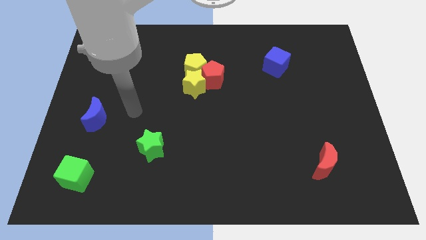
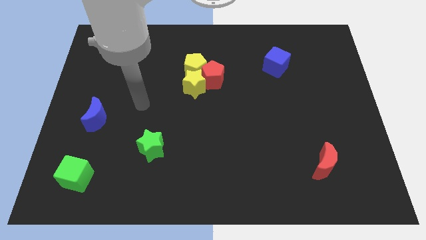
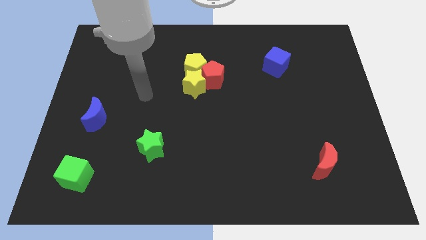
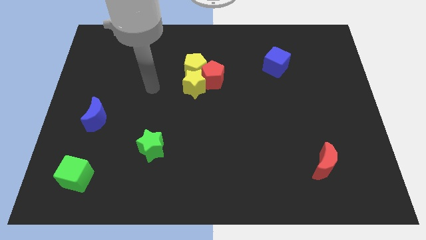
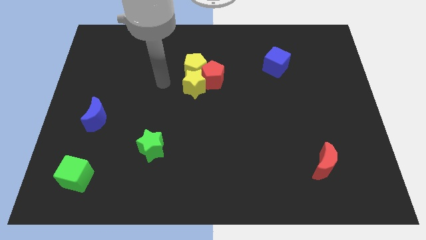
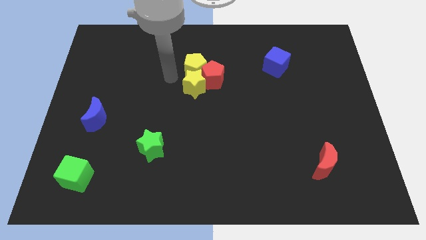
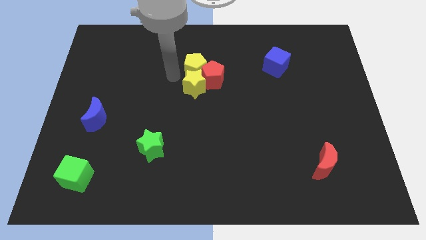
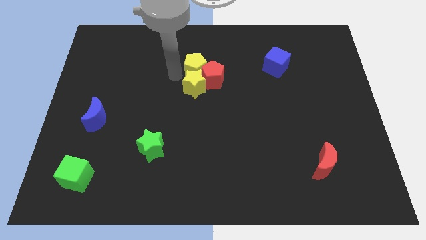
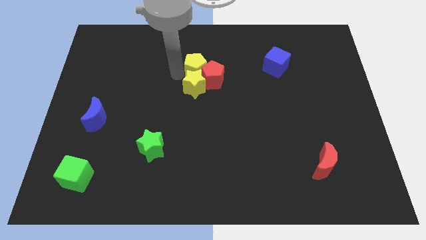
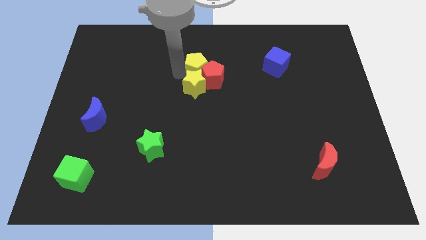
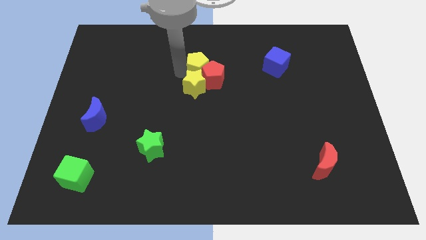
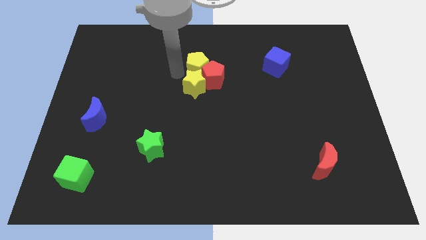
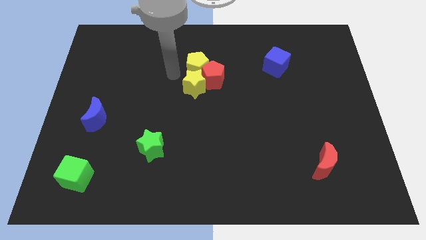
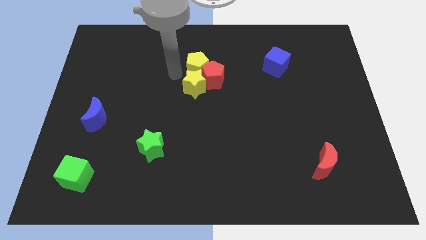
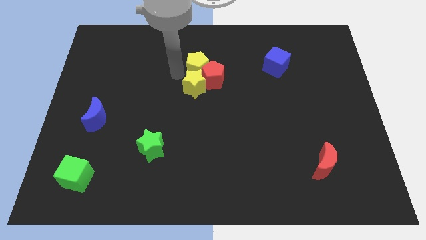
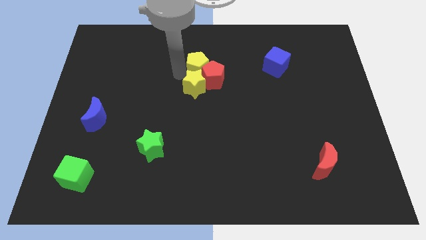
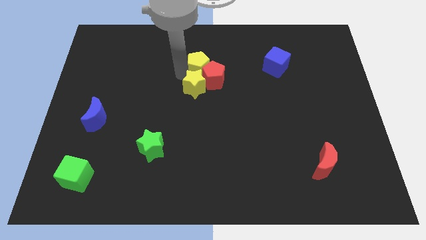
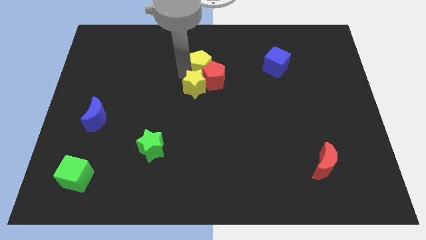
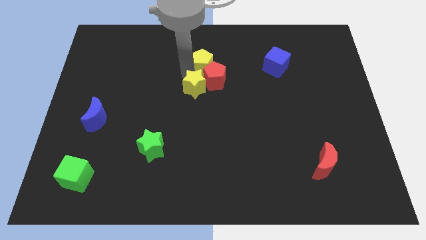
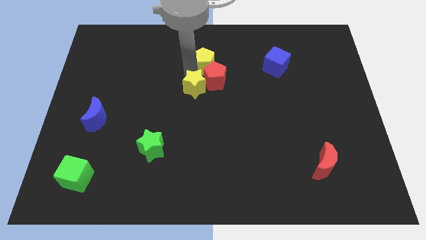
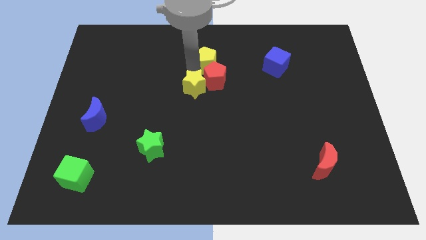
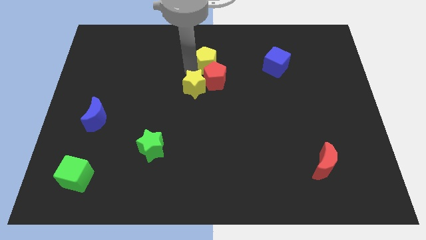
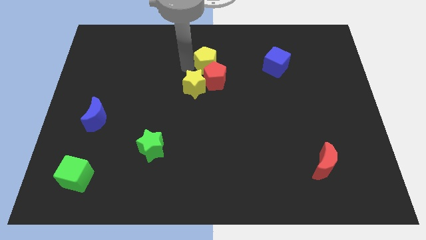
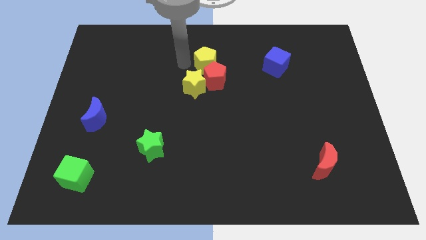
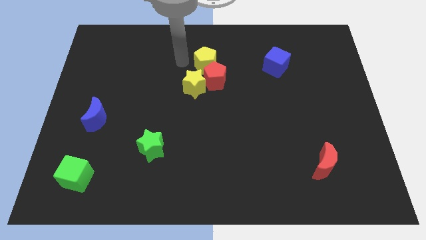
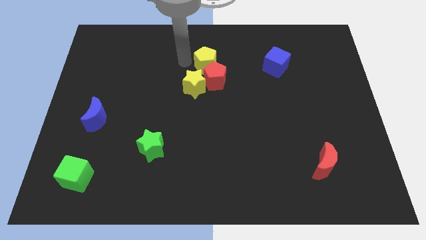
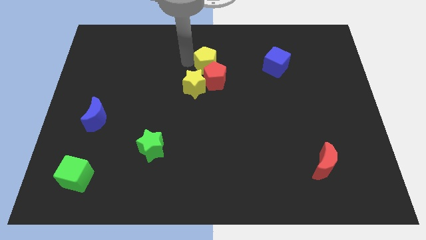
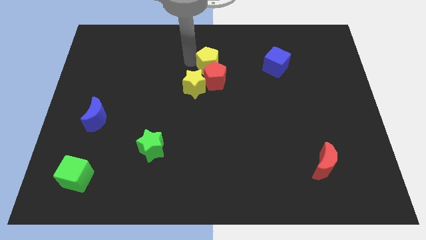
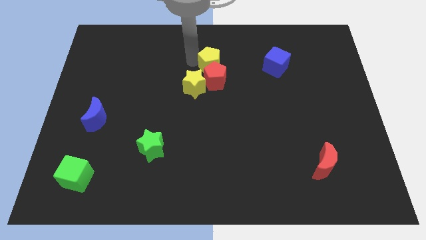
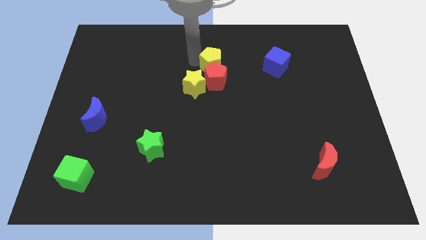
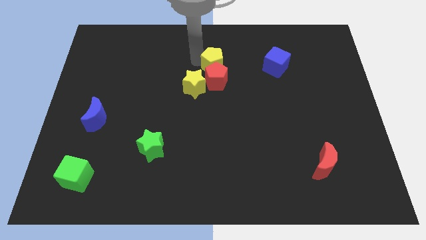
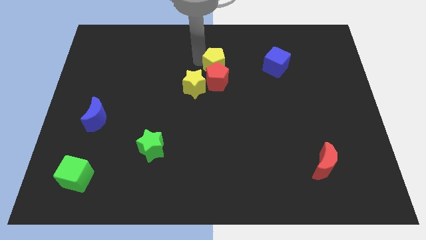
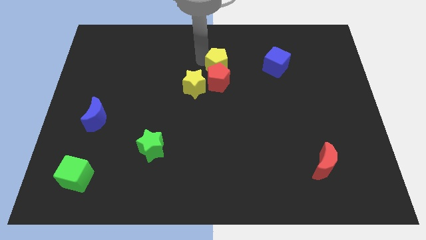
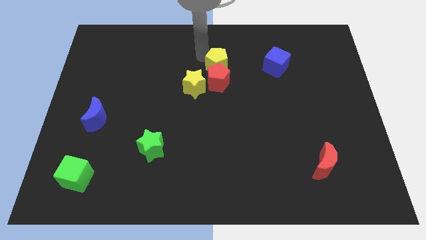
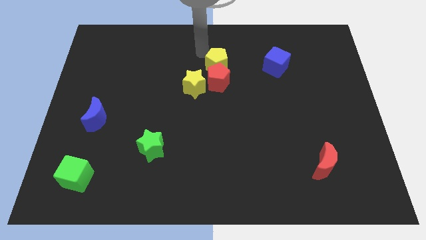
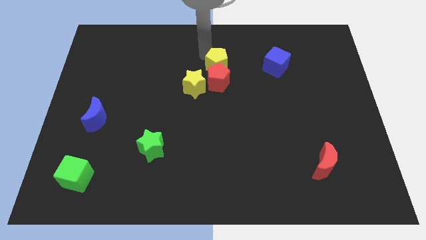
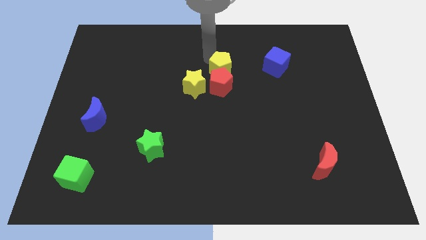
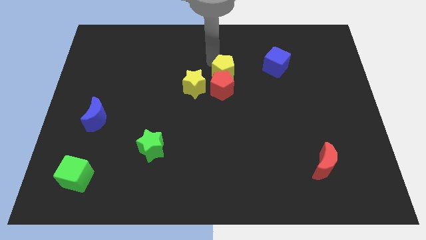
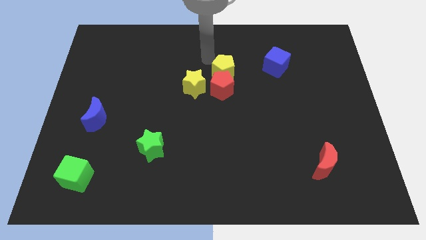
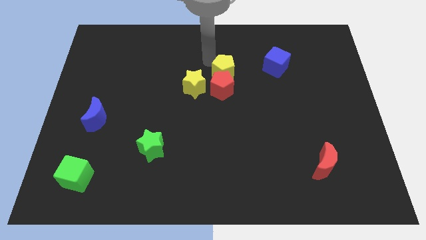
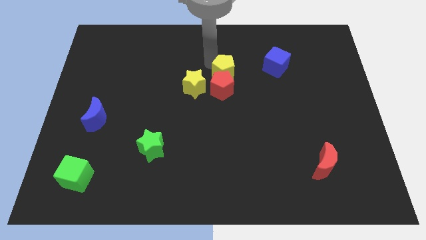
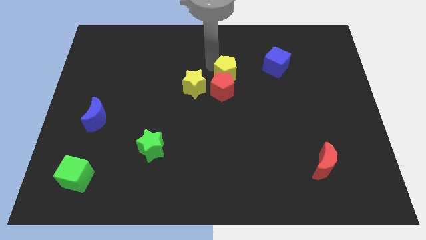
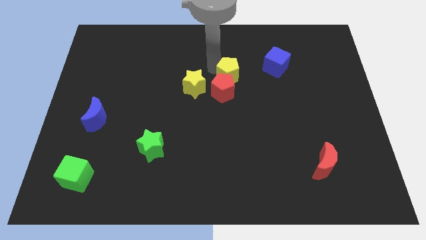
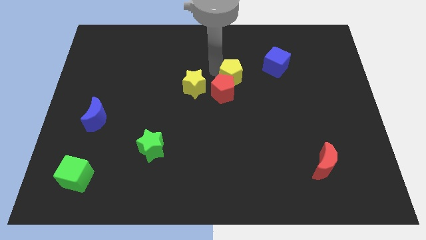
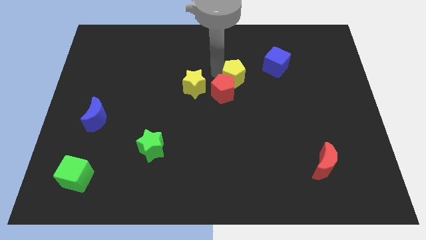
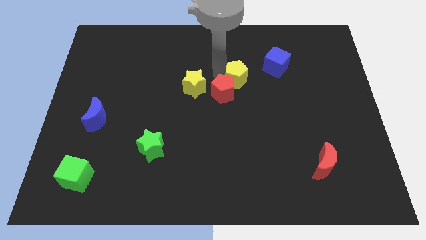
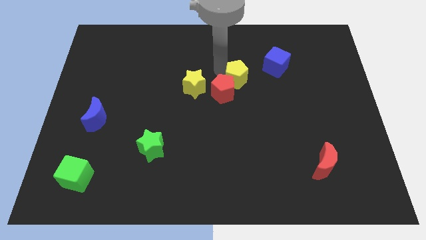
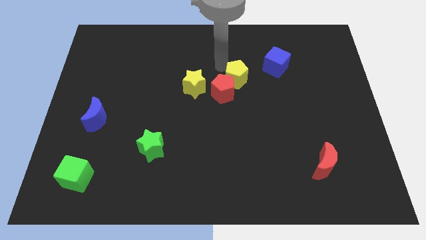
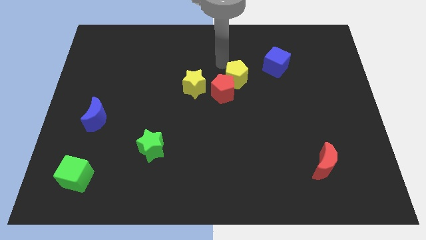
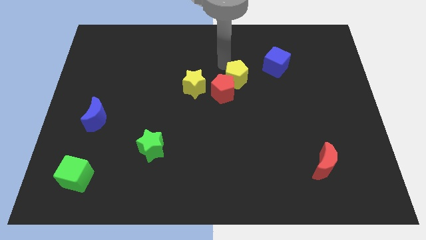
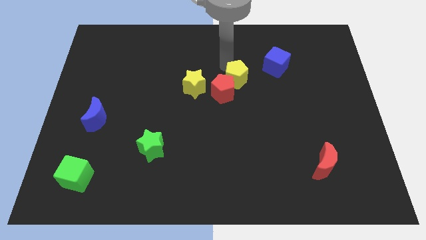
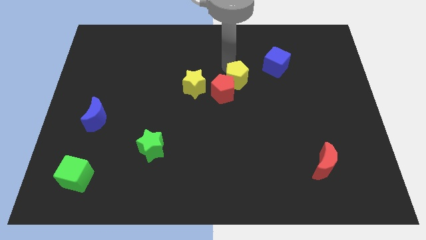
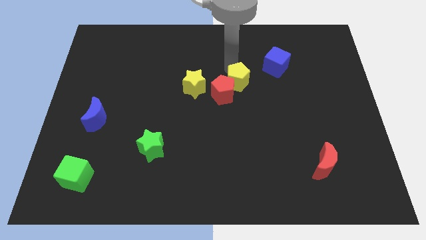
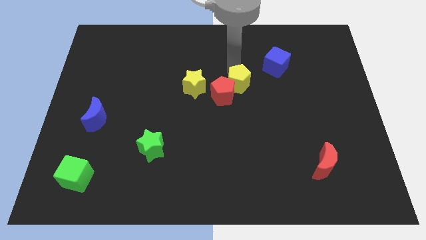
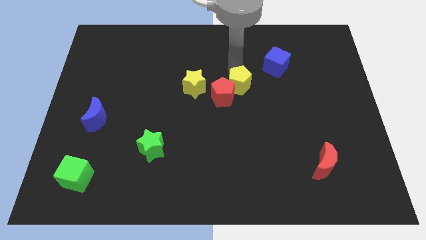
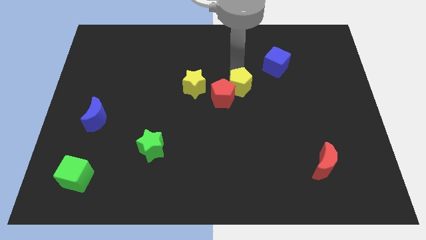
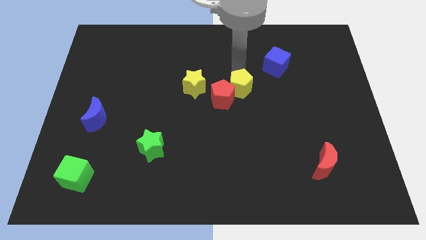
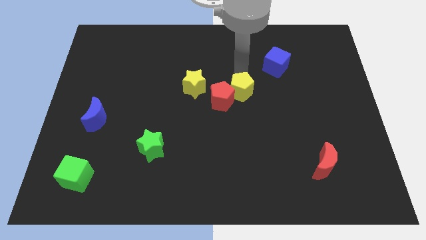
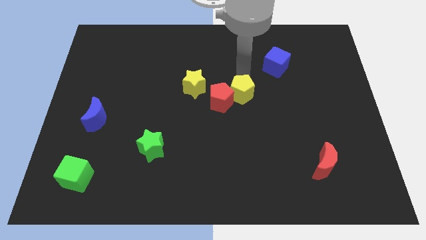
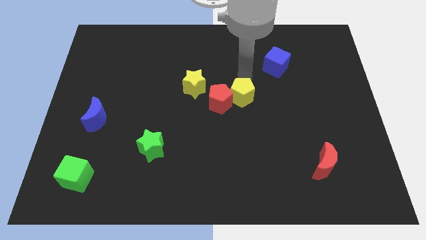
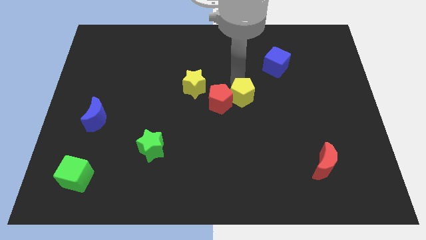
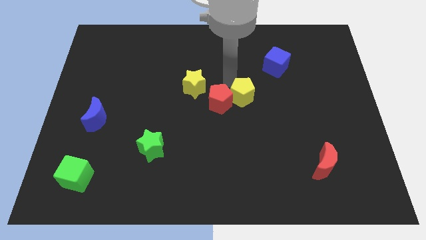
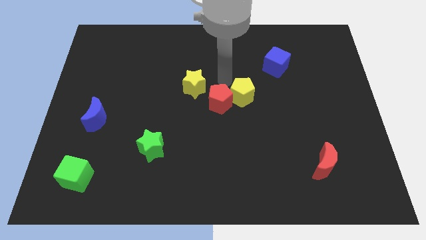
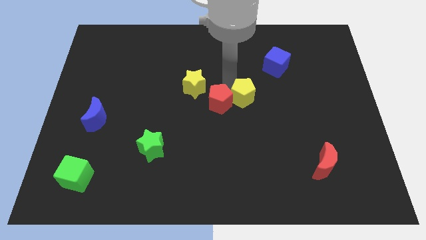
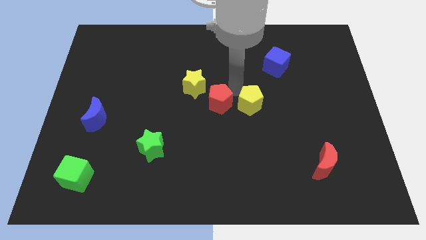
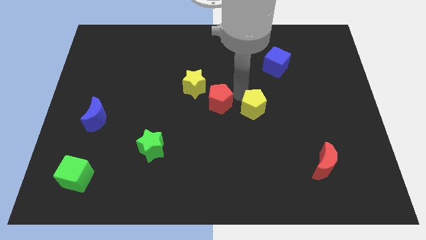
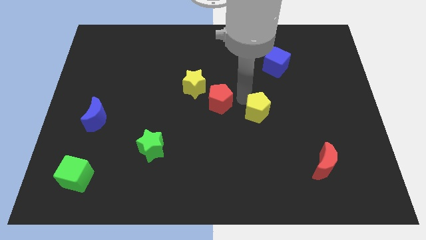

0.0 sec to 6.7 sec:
push the yellow pentagon down and to the right

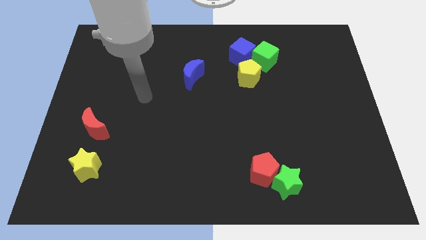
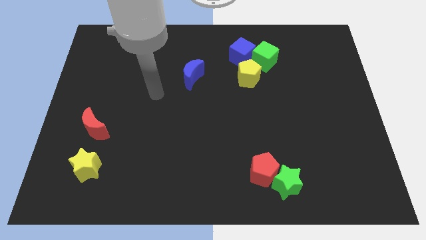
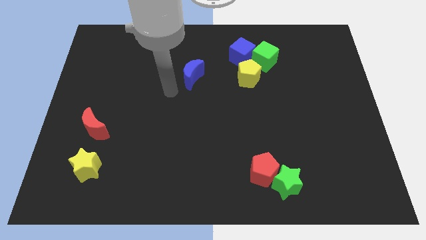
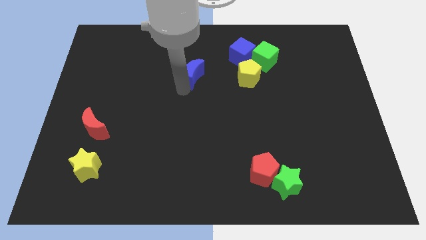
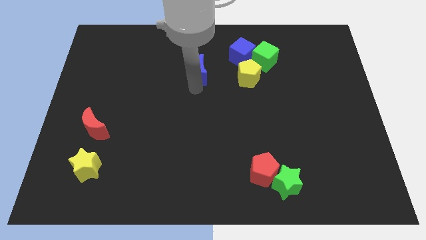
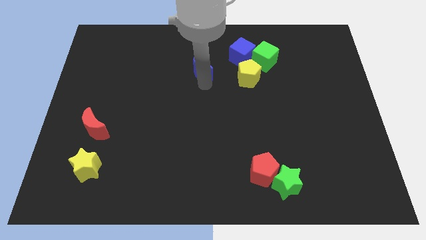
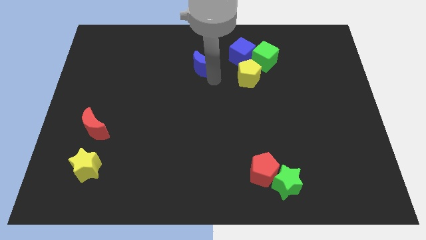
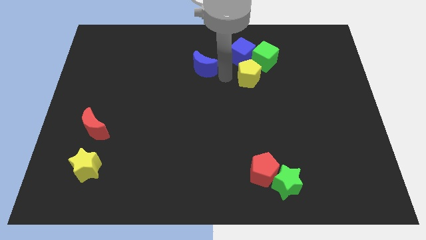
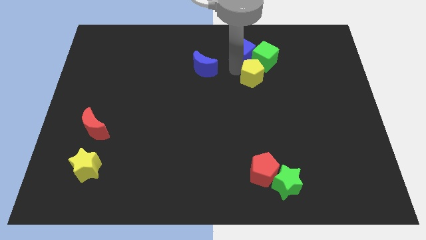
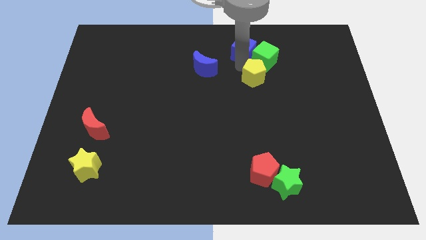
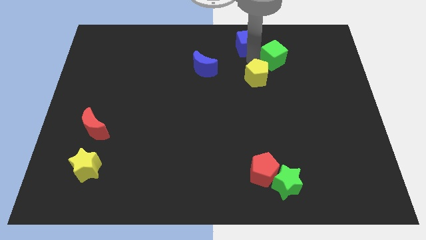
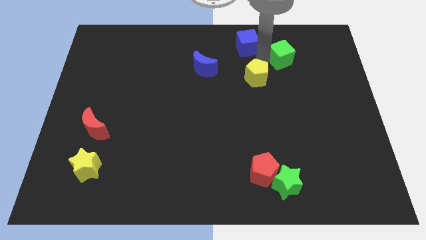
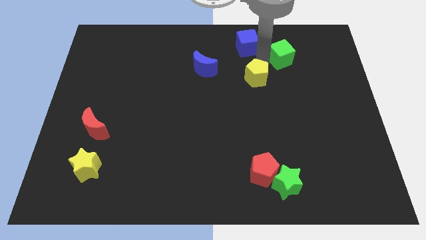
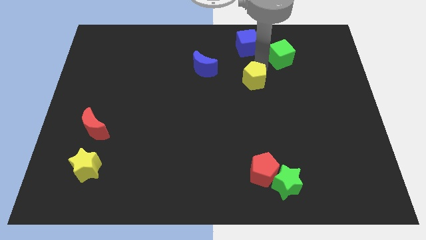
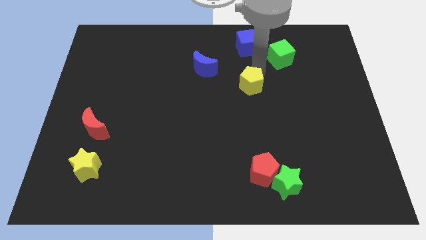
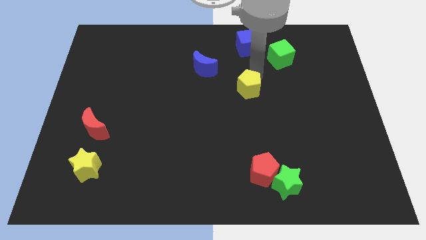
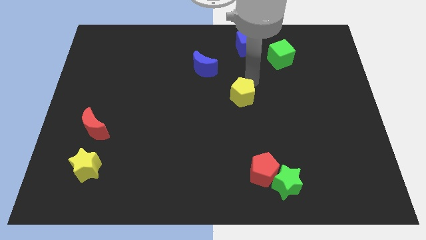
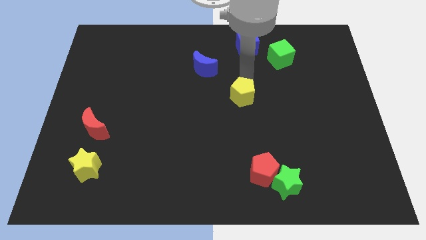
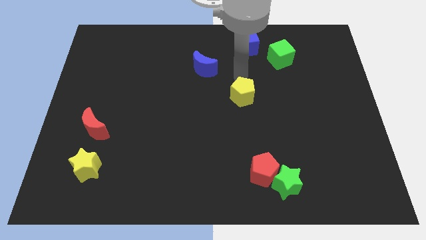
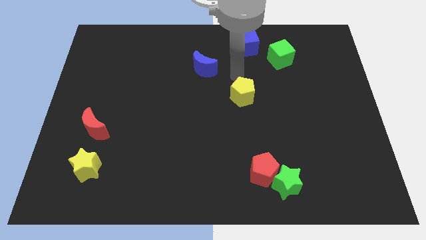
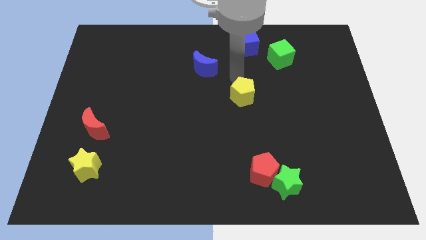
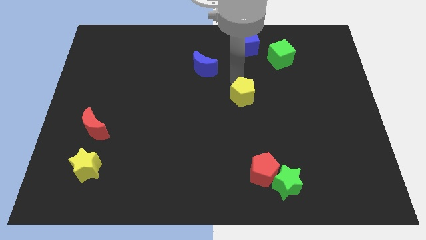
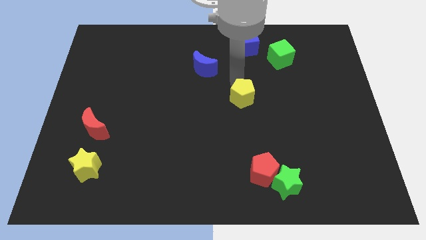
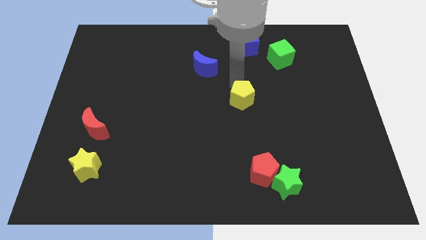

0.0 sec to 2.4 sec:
push the yellow pentagon slightly downwards
